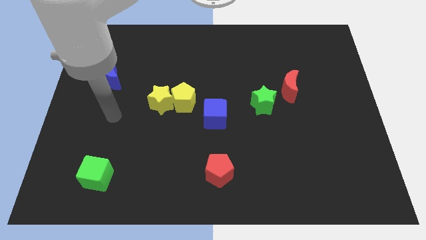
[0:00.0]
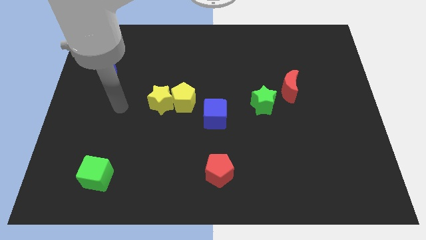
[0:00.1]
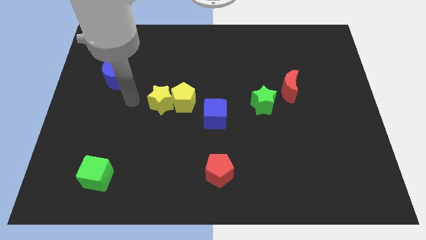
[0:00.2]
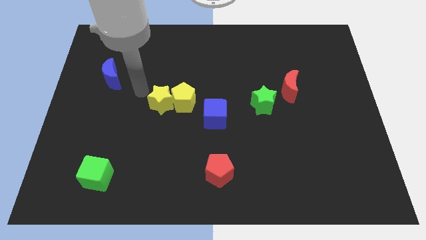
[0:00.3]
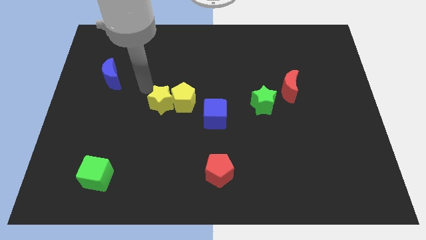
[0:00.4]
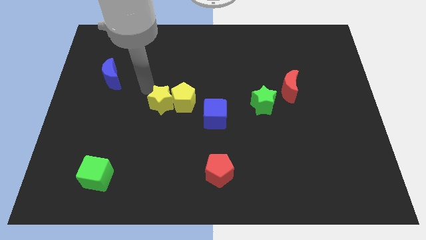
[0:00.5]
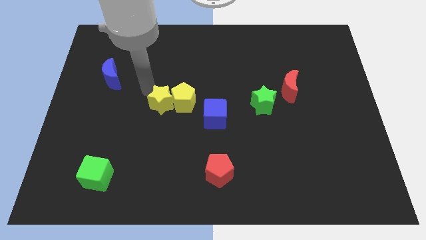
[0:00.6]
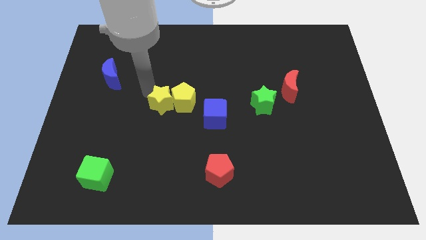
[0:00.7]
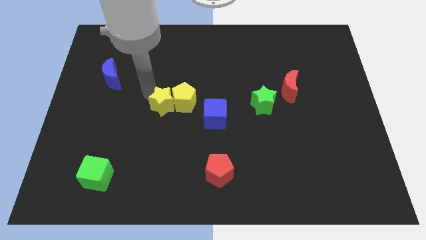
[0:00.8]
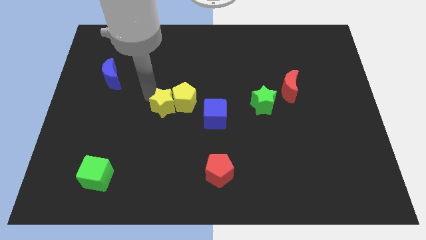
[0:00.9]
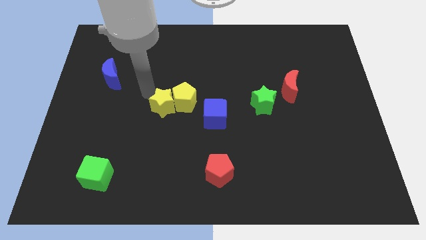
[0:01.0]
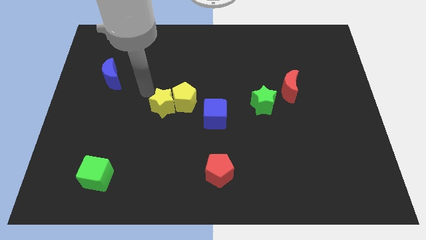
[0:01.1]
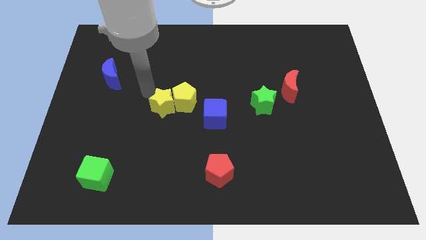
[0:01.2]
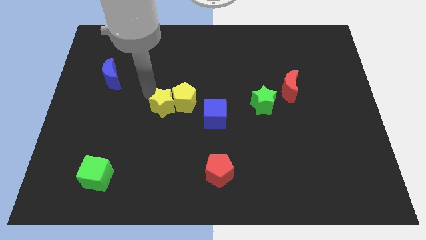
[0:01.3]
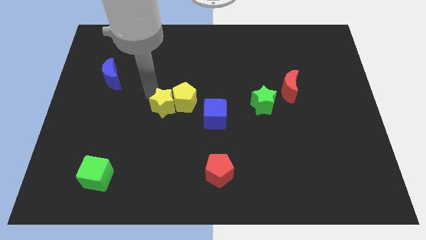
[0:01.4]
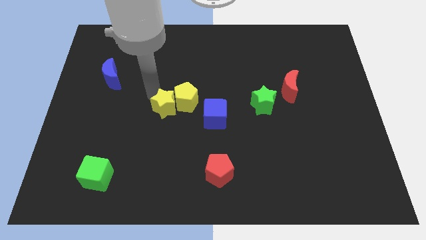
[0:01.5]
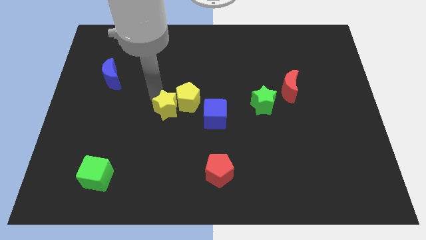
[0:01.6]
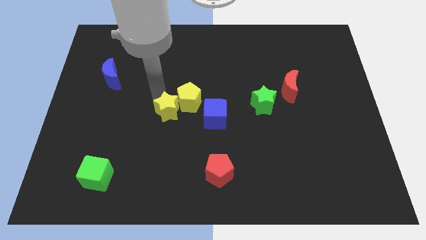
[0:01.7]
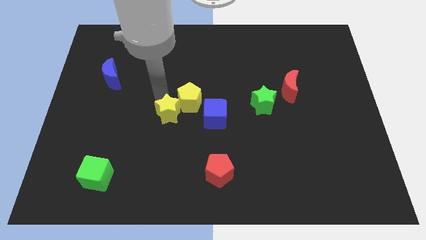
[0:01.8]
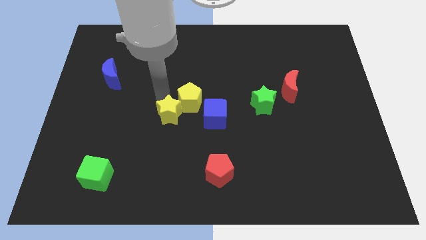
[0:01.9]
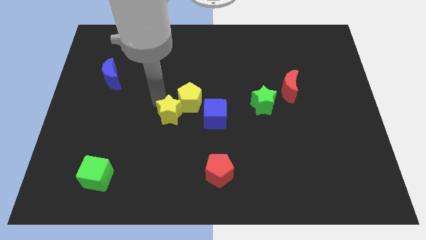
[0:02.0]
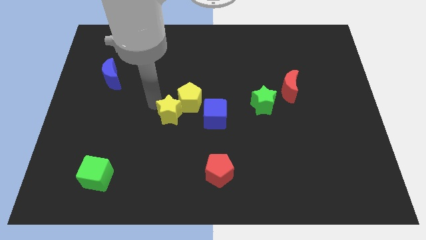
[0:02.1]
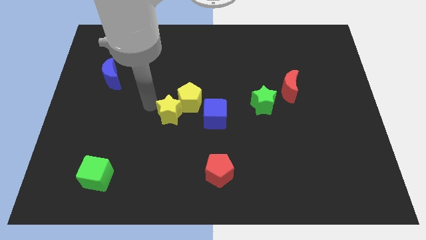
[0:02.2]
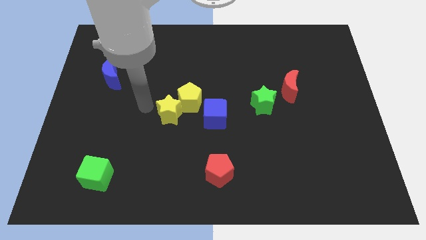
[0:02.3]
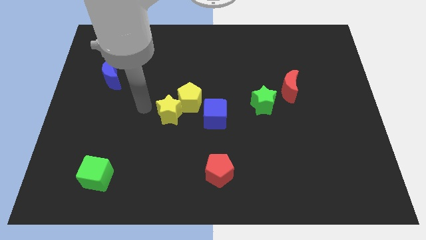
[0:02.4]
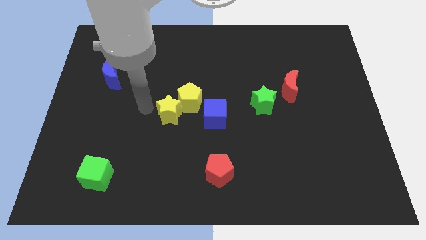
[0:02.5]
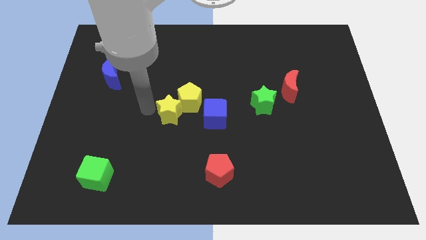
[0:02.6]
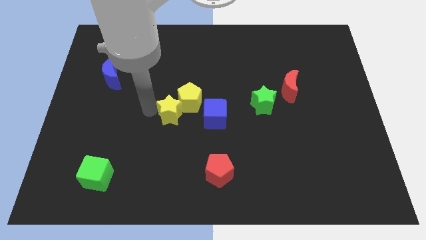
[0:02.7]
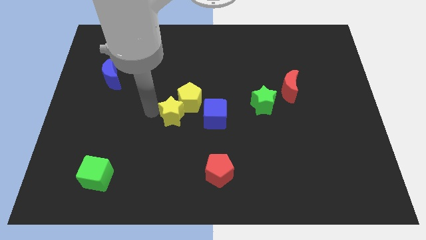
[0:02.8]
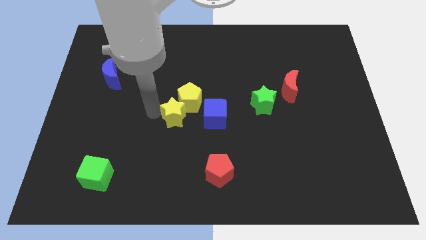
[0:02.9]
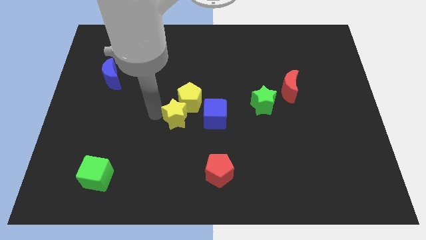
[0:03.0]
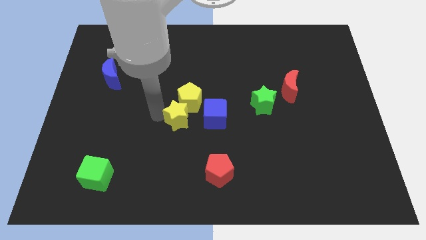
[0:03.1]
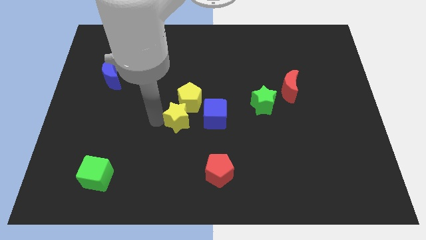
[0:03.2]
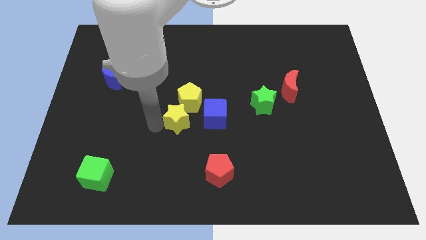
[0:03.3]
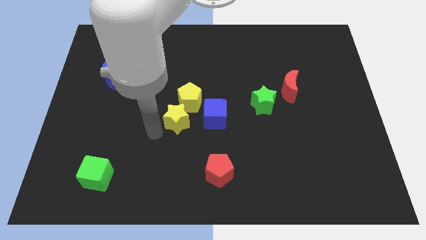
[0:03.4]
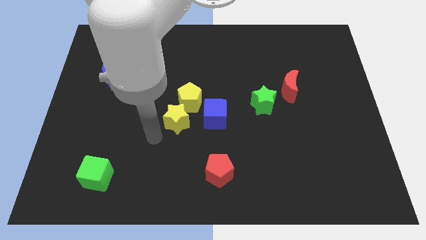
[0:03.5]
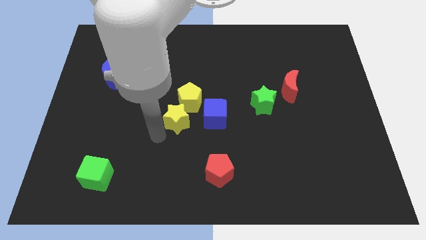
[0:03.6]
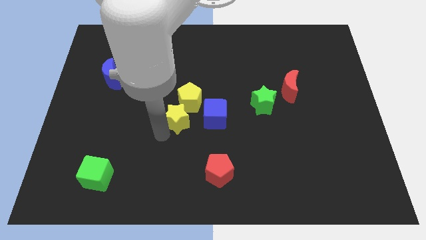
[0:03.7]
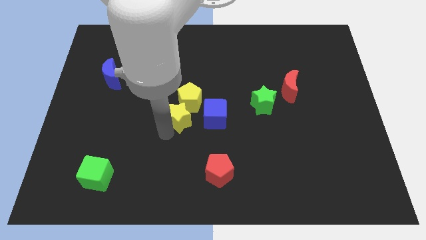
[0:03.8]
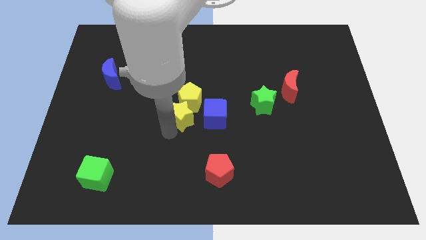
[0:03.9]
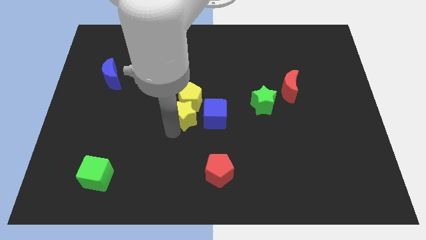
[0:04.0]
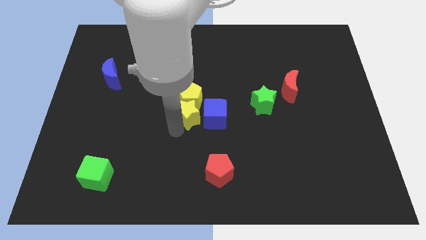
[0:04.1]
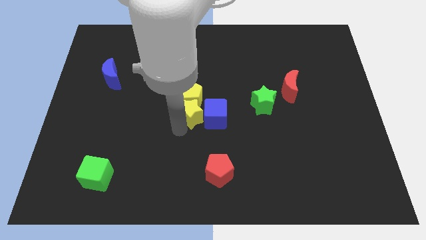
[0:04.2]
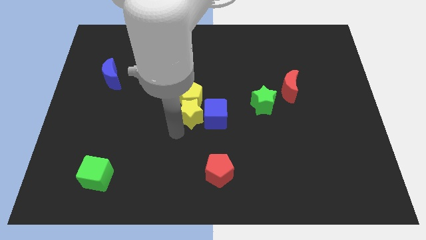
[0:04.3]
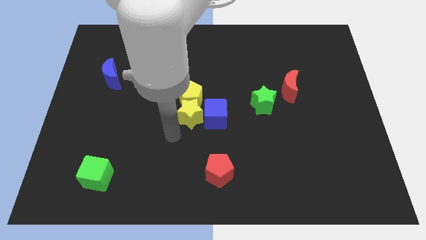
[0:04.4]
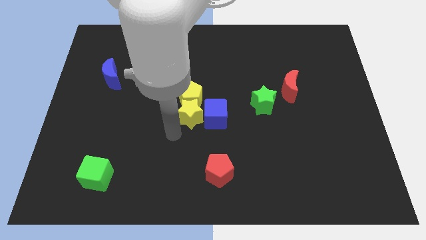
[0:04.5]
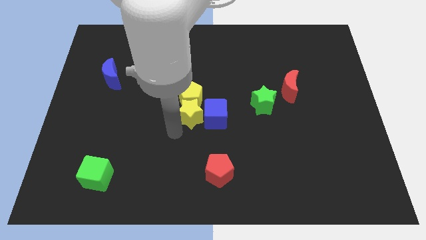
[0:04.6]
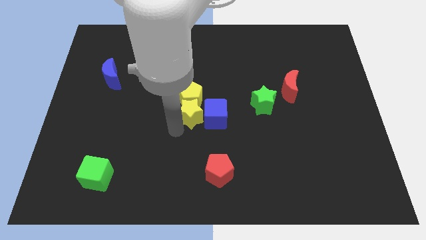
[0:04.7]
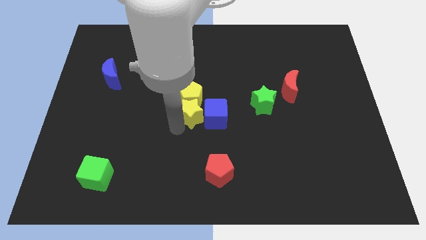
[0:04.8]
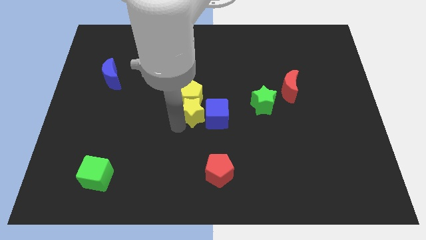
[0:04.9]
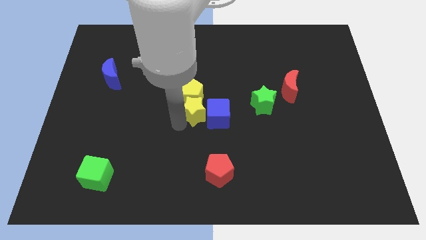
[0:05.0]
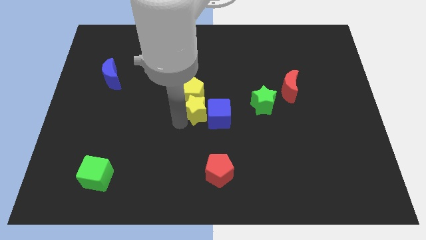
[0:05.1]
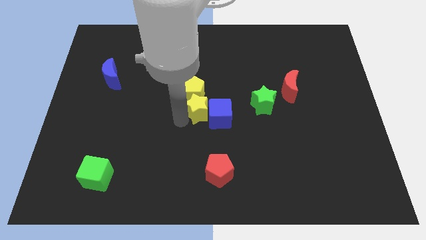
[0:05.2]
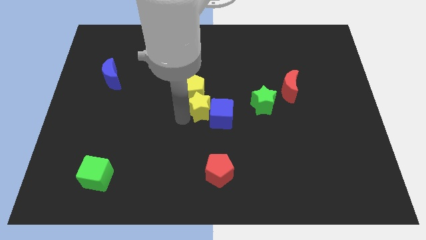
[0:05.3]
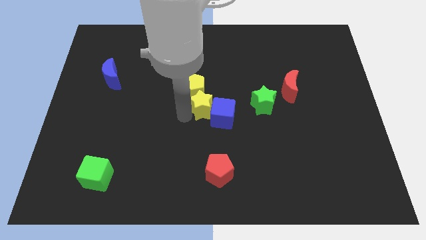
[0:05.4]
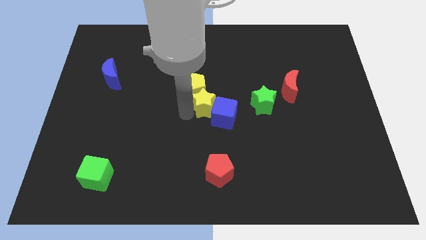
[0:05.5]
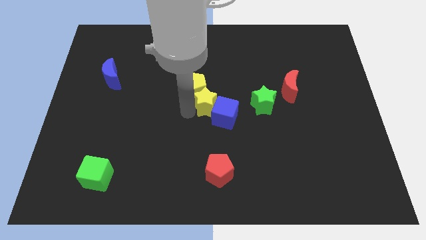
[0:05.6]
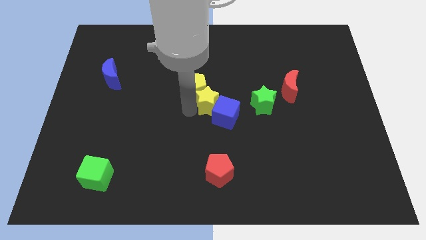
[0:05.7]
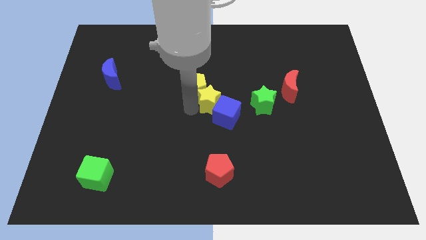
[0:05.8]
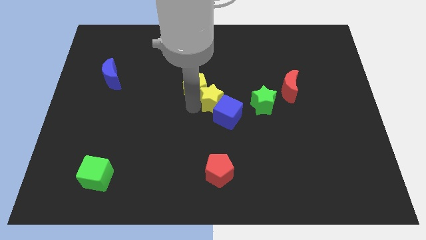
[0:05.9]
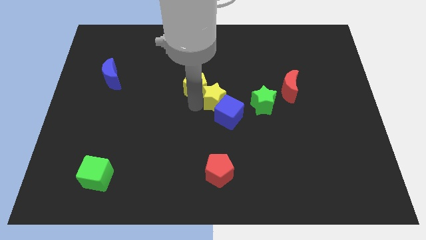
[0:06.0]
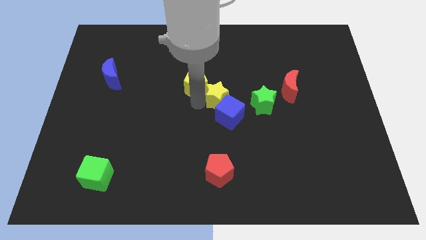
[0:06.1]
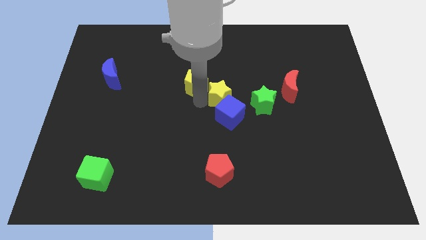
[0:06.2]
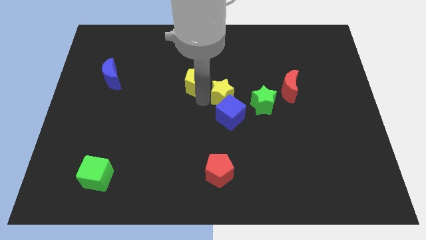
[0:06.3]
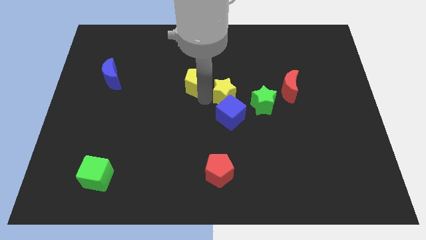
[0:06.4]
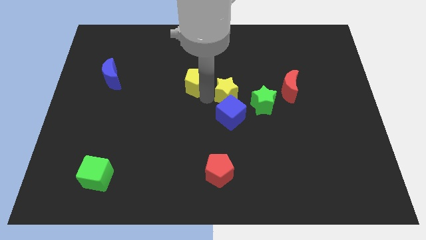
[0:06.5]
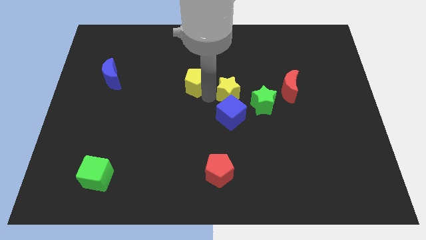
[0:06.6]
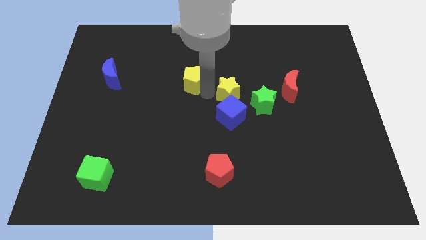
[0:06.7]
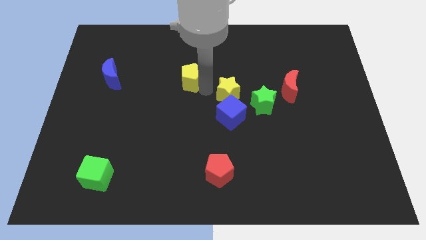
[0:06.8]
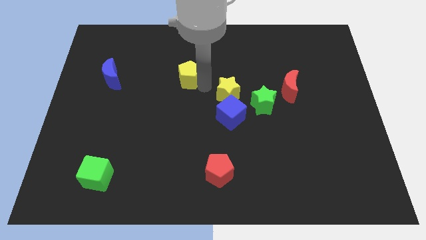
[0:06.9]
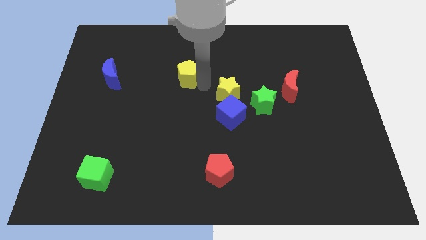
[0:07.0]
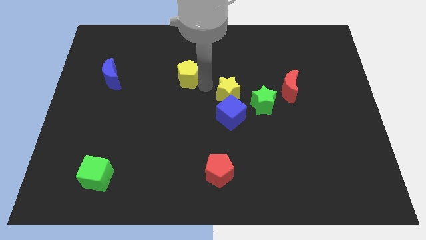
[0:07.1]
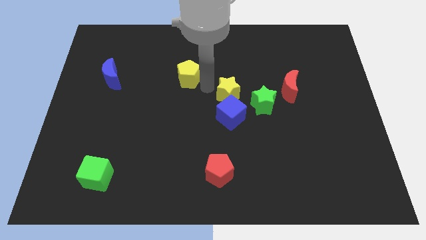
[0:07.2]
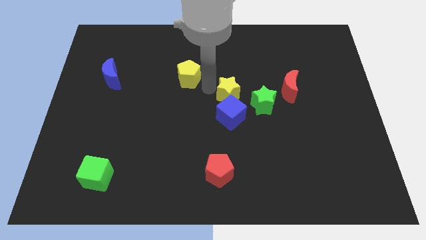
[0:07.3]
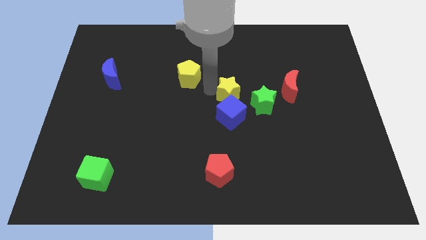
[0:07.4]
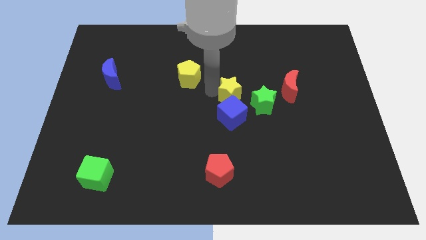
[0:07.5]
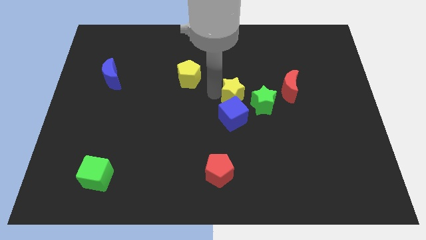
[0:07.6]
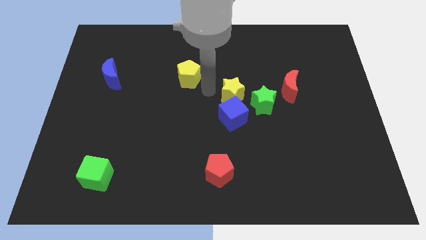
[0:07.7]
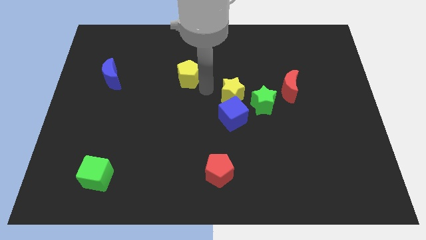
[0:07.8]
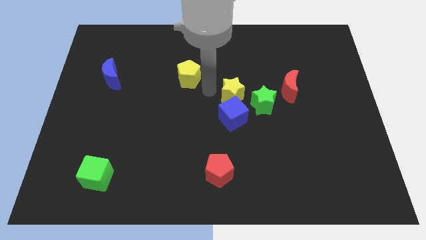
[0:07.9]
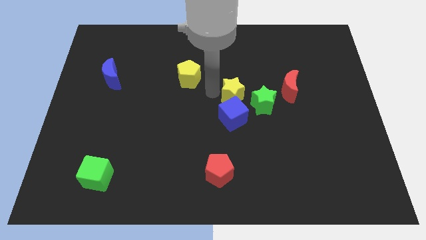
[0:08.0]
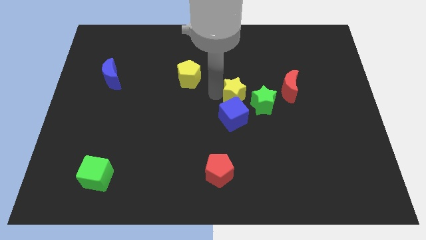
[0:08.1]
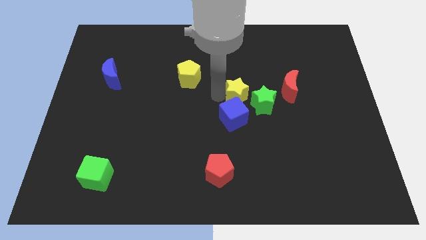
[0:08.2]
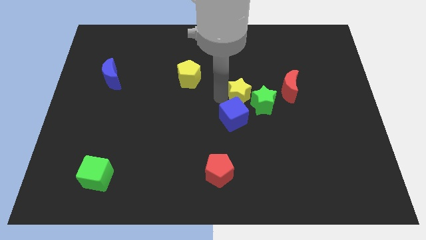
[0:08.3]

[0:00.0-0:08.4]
push the yellow star to the green star
